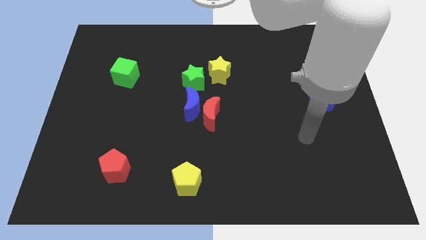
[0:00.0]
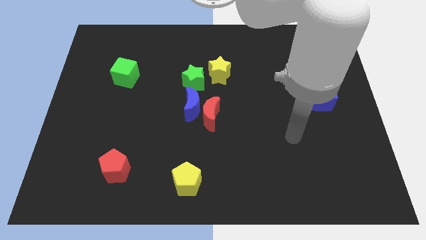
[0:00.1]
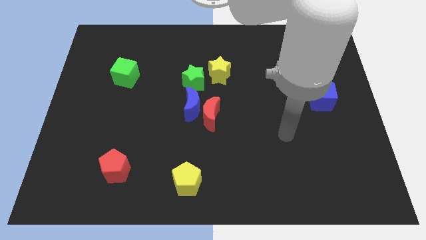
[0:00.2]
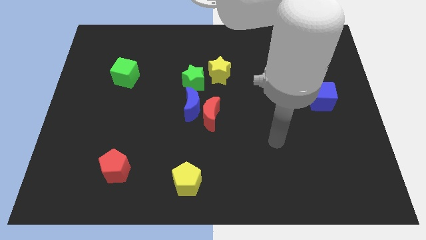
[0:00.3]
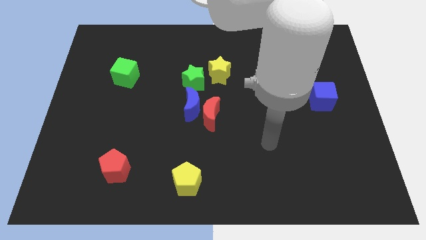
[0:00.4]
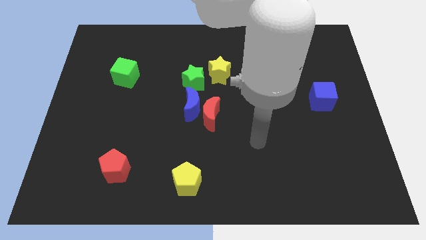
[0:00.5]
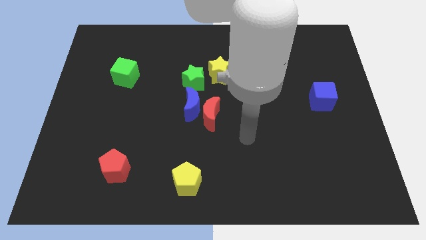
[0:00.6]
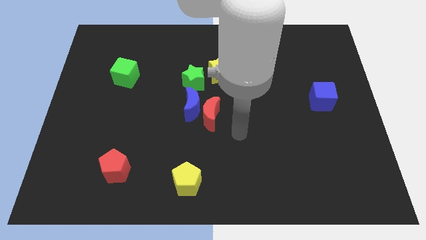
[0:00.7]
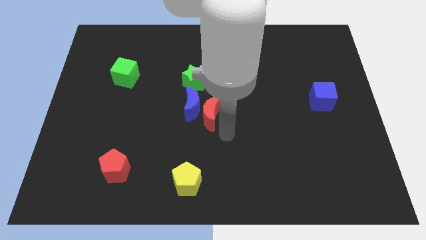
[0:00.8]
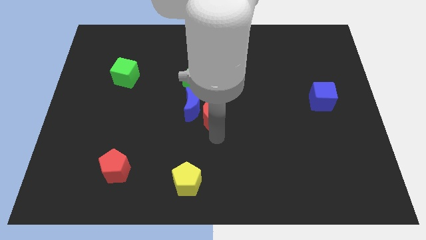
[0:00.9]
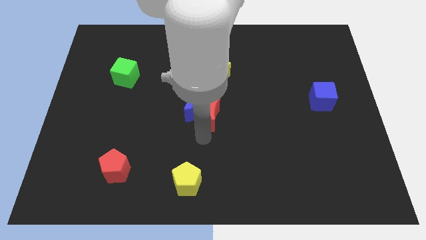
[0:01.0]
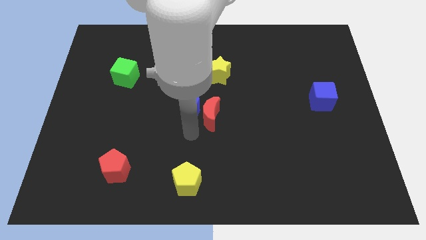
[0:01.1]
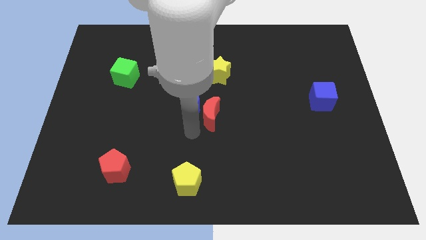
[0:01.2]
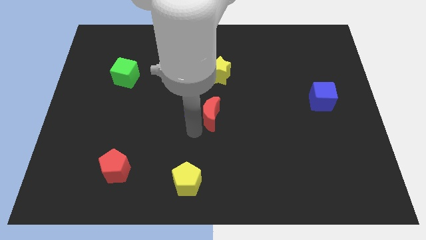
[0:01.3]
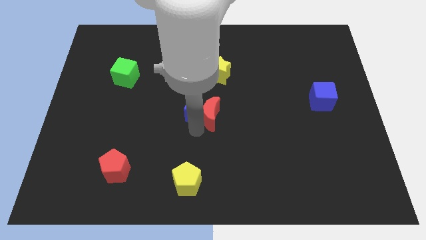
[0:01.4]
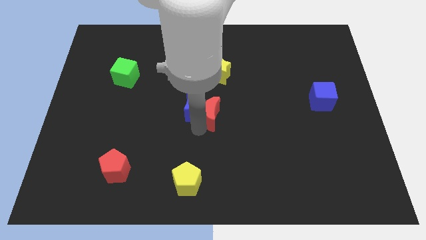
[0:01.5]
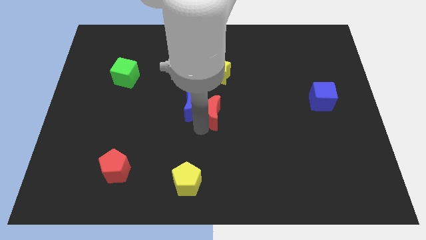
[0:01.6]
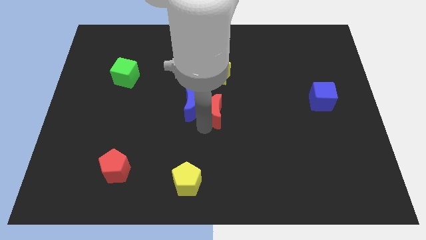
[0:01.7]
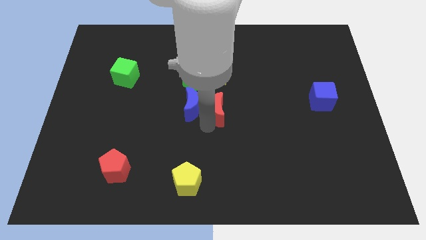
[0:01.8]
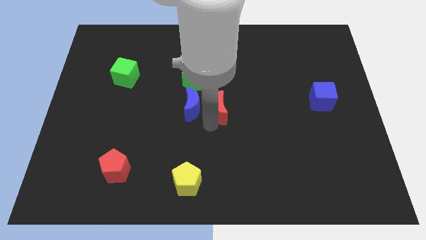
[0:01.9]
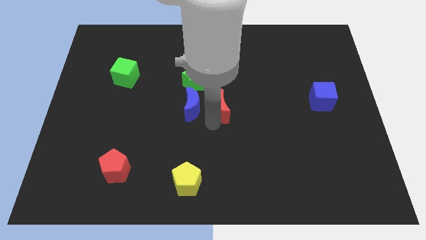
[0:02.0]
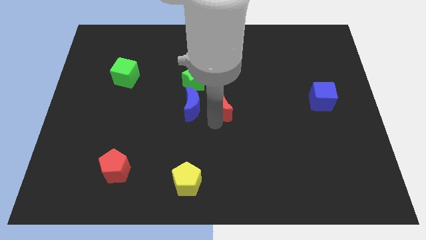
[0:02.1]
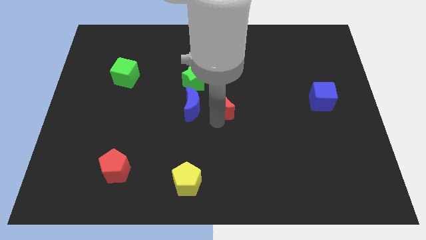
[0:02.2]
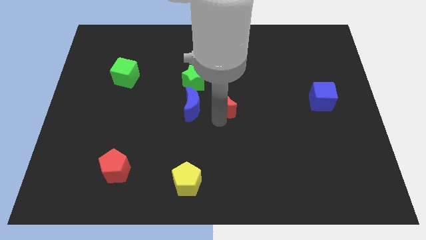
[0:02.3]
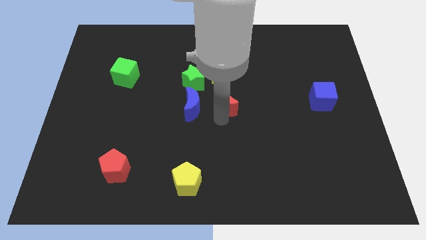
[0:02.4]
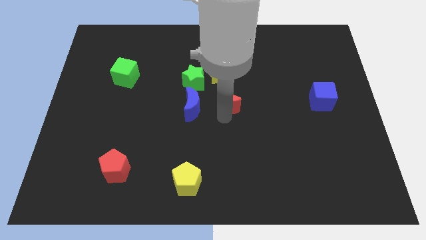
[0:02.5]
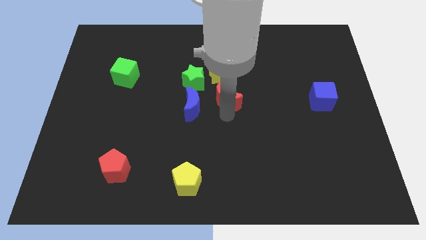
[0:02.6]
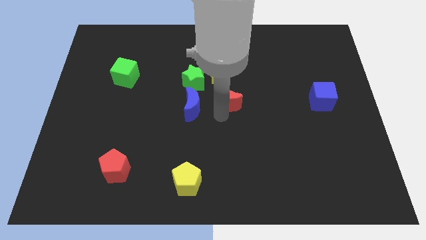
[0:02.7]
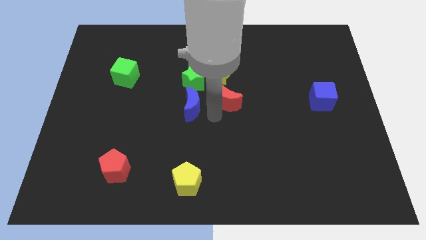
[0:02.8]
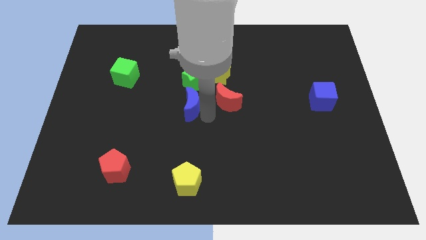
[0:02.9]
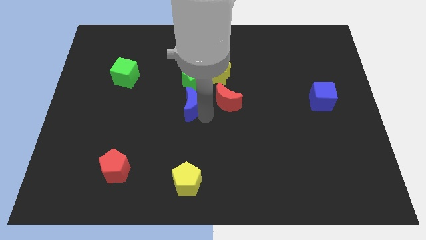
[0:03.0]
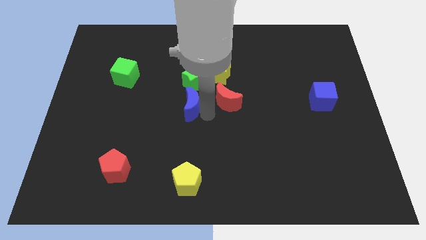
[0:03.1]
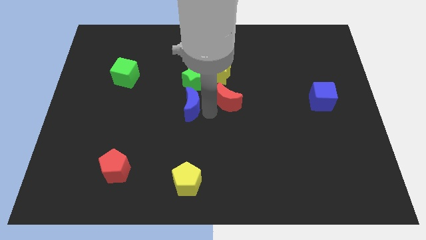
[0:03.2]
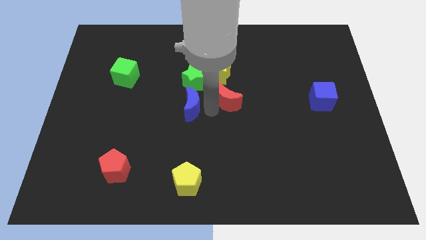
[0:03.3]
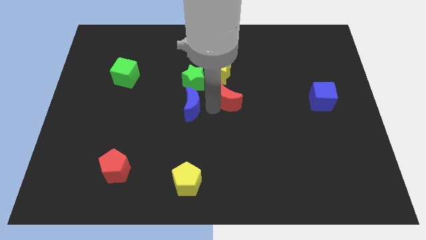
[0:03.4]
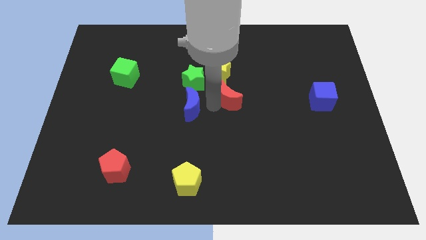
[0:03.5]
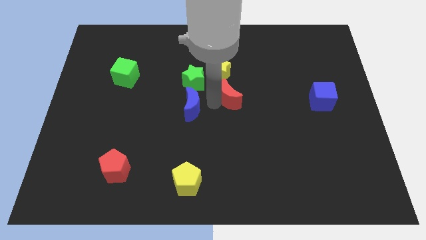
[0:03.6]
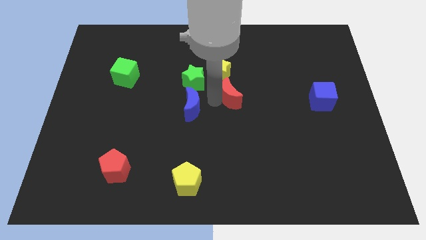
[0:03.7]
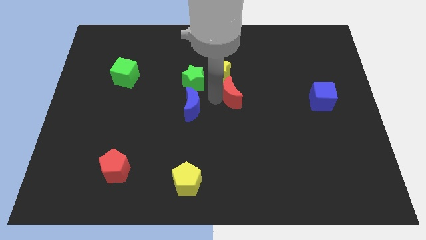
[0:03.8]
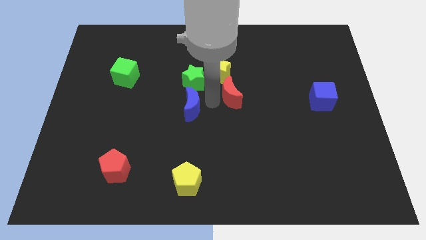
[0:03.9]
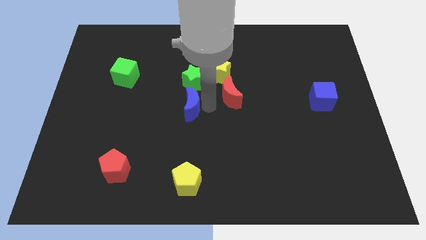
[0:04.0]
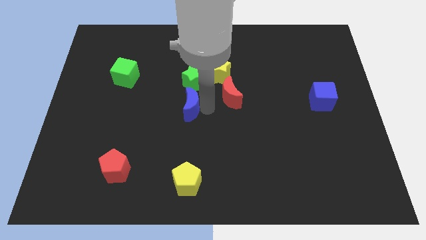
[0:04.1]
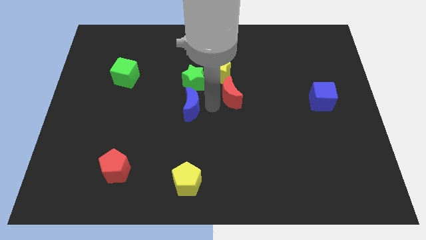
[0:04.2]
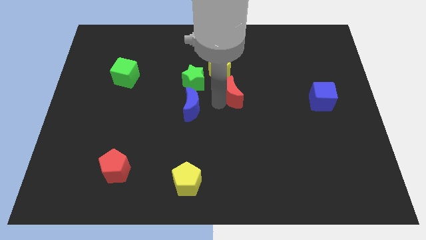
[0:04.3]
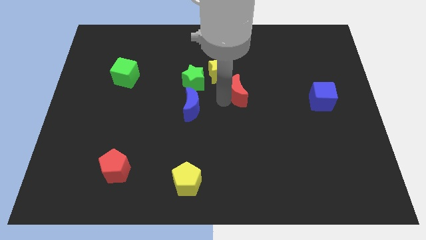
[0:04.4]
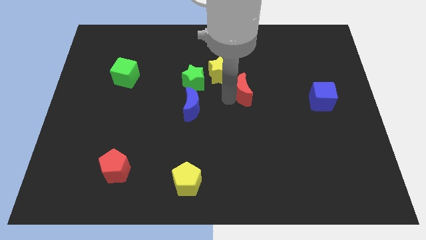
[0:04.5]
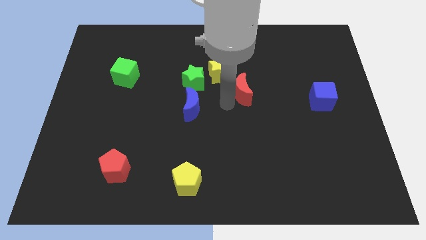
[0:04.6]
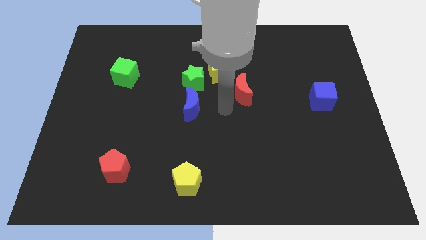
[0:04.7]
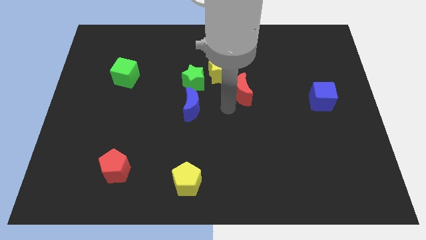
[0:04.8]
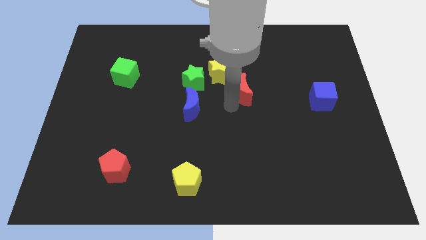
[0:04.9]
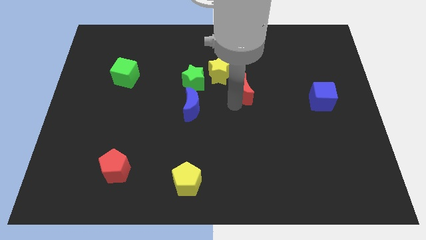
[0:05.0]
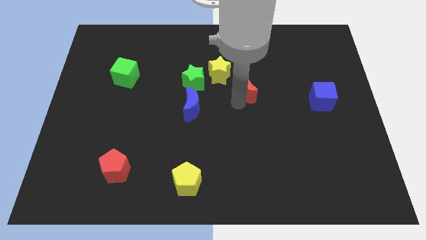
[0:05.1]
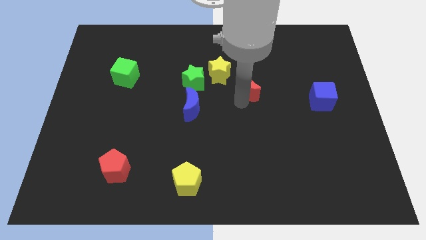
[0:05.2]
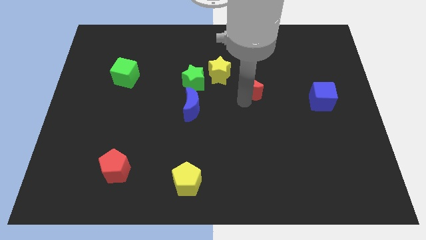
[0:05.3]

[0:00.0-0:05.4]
put the red moon to the right side of the yellow star
